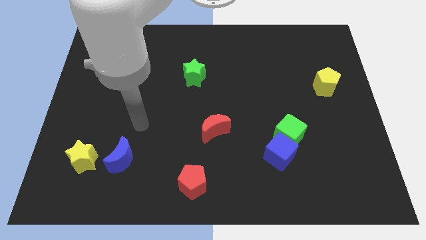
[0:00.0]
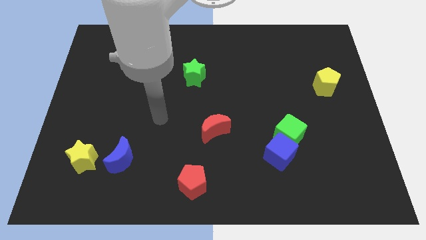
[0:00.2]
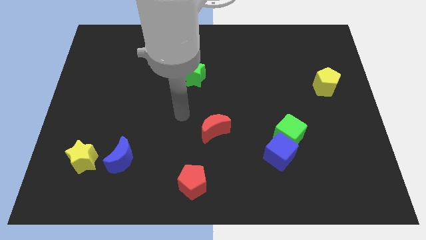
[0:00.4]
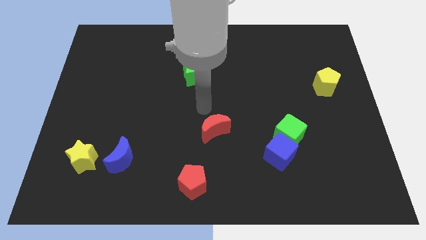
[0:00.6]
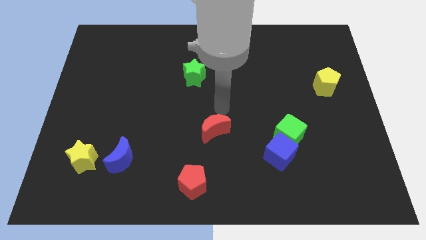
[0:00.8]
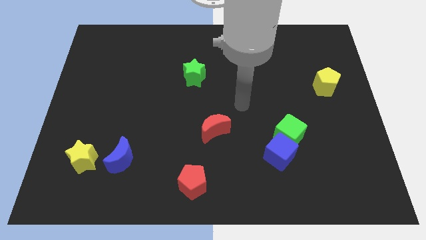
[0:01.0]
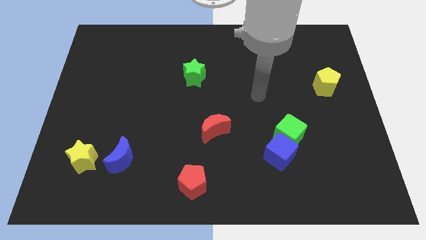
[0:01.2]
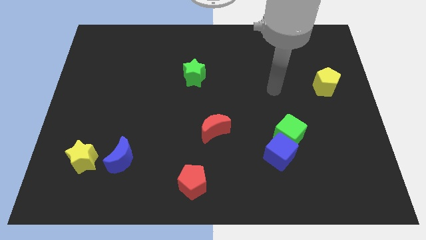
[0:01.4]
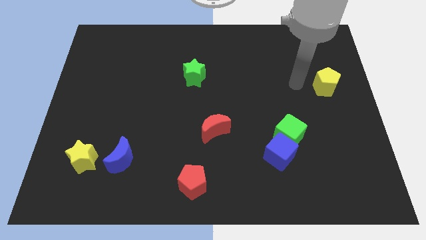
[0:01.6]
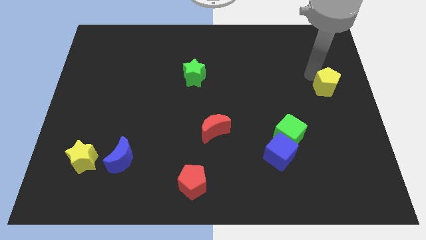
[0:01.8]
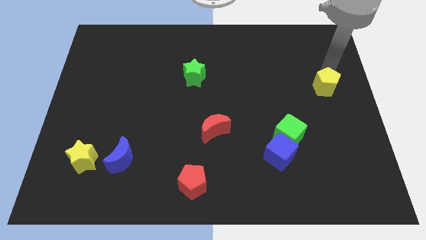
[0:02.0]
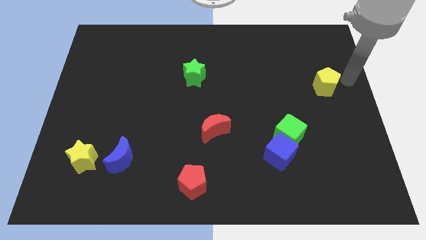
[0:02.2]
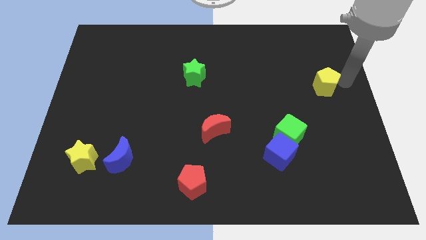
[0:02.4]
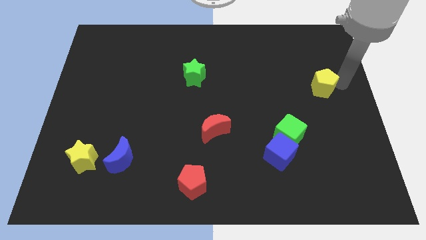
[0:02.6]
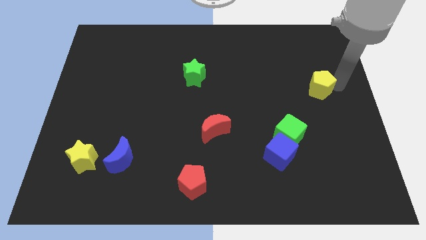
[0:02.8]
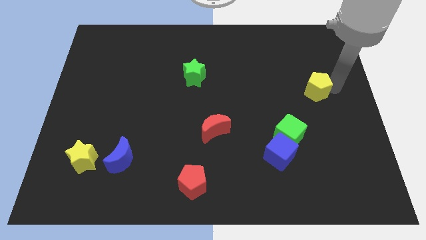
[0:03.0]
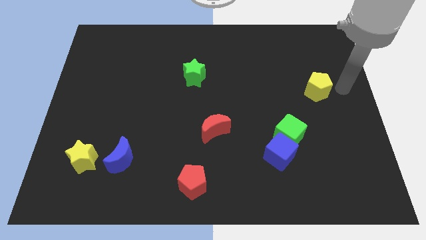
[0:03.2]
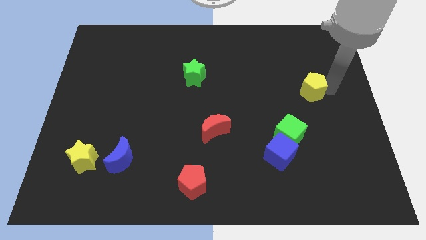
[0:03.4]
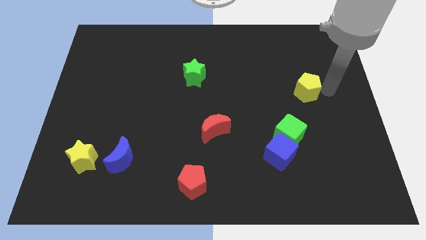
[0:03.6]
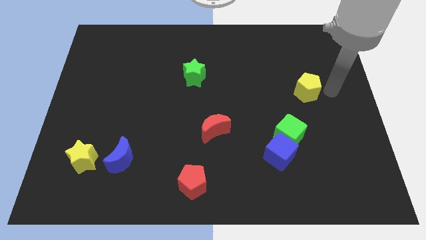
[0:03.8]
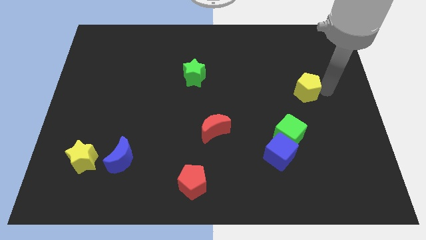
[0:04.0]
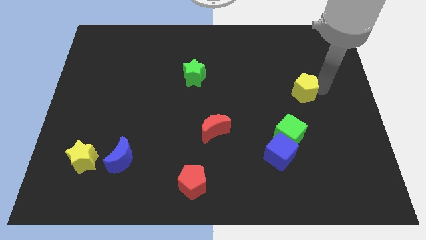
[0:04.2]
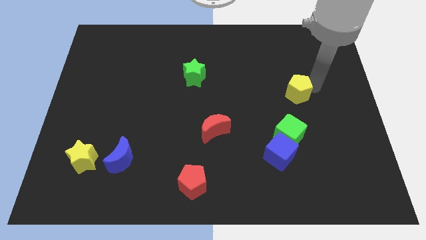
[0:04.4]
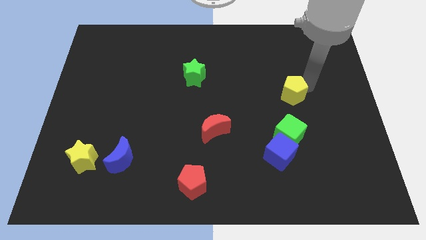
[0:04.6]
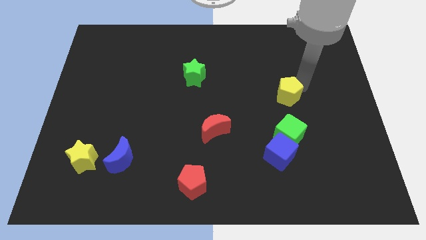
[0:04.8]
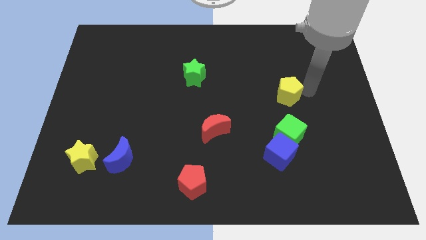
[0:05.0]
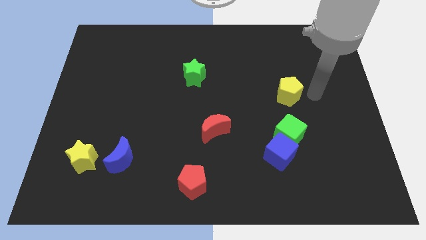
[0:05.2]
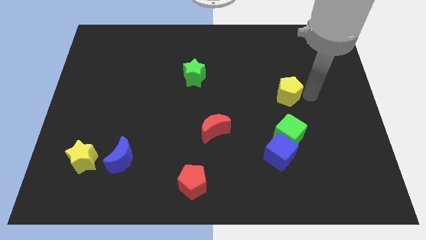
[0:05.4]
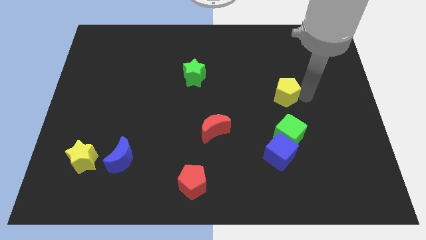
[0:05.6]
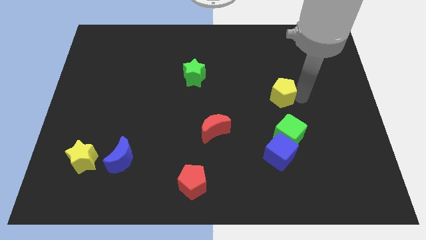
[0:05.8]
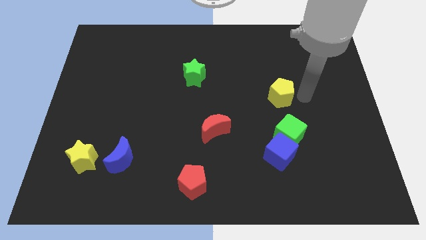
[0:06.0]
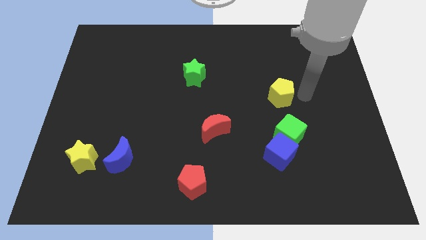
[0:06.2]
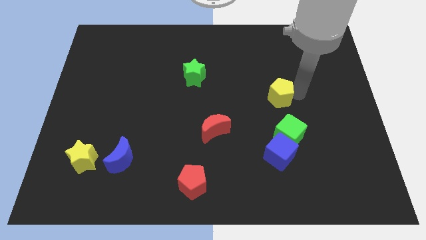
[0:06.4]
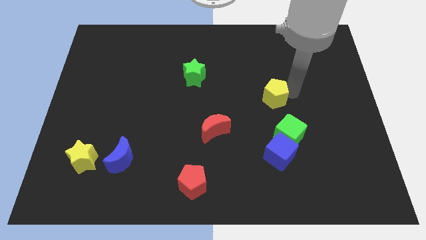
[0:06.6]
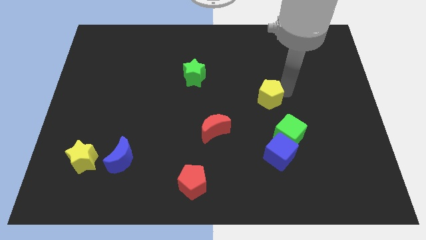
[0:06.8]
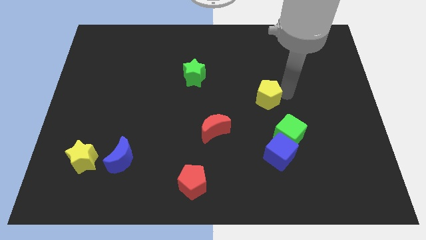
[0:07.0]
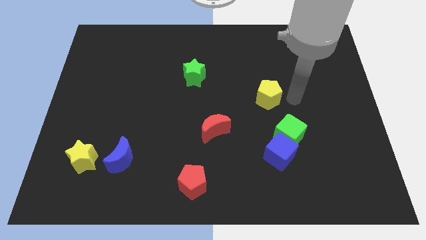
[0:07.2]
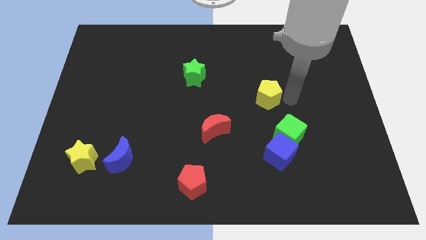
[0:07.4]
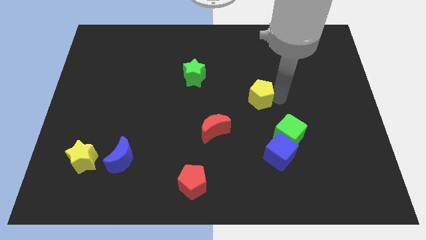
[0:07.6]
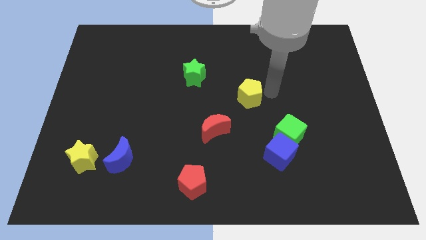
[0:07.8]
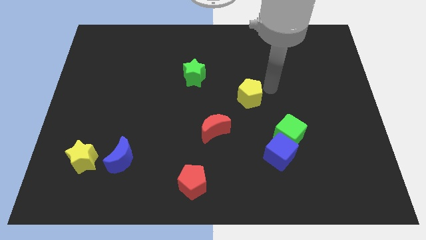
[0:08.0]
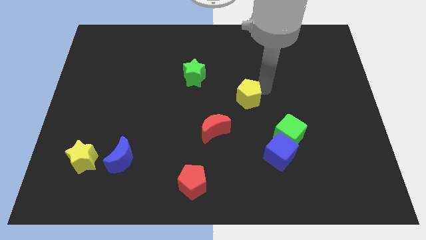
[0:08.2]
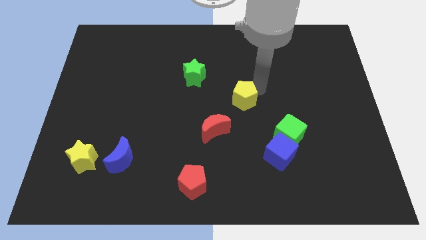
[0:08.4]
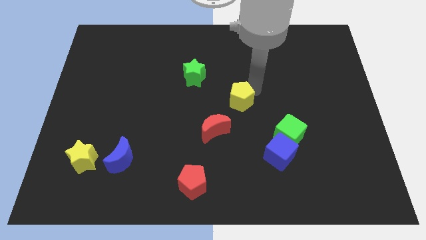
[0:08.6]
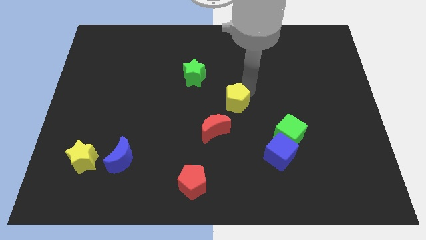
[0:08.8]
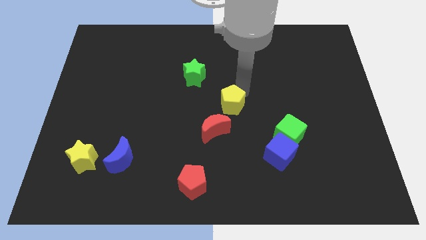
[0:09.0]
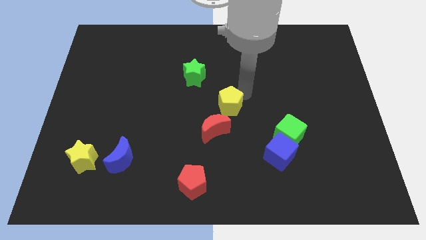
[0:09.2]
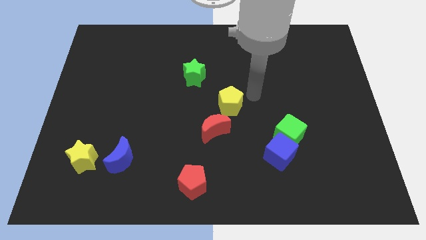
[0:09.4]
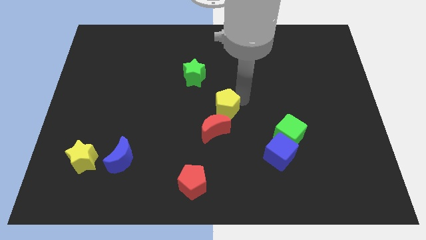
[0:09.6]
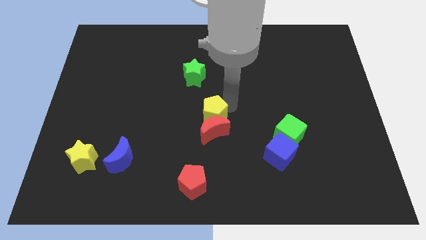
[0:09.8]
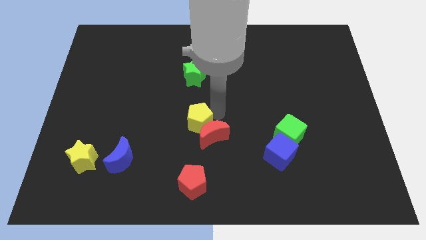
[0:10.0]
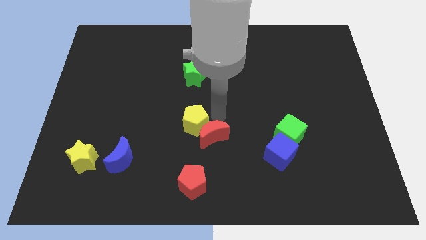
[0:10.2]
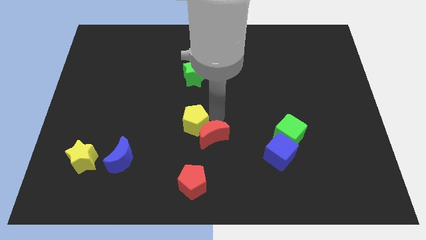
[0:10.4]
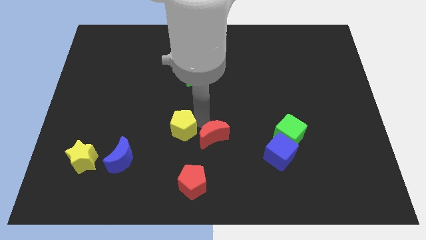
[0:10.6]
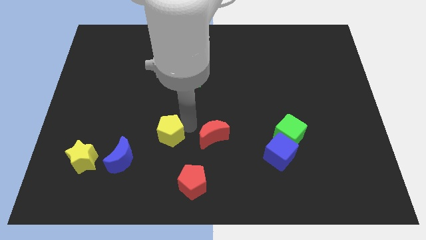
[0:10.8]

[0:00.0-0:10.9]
move the yellow pentagon to the top right side of the blue moon

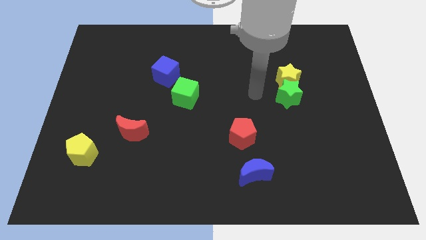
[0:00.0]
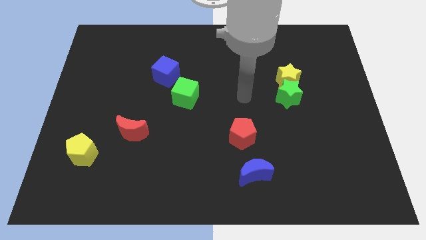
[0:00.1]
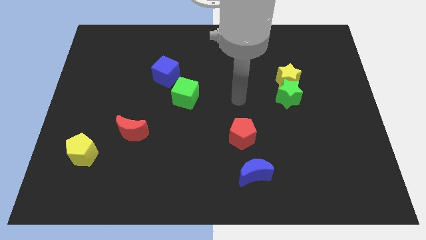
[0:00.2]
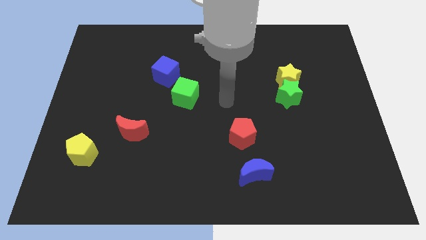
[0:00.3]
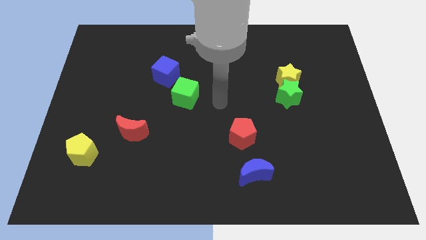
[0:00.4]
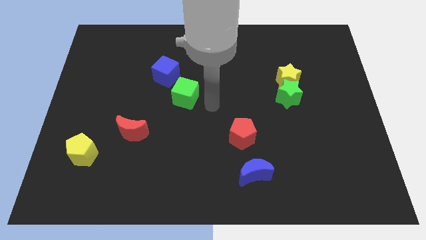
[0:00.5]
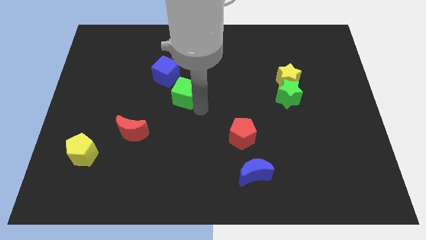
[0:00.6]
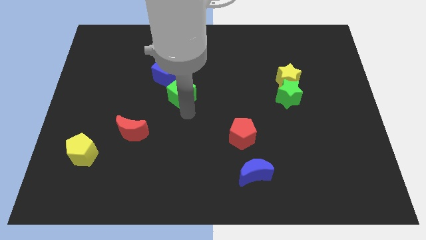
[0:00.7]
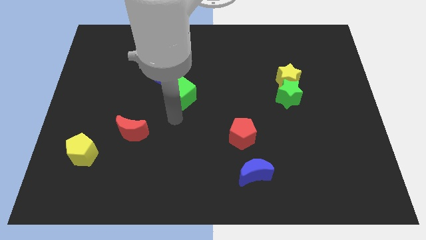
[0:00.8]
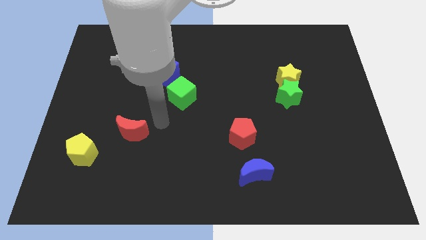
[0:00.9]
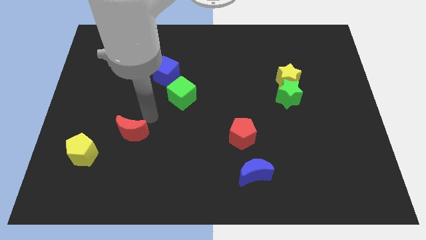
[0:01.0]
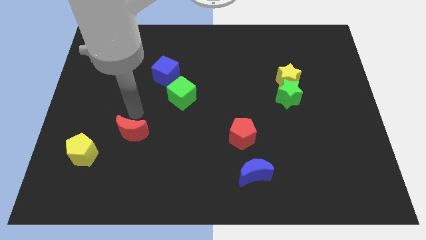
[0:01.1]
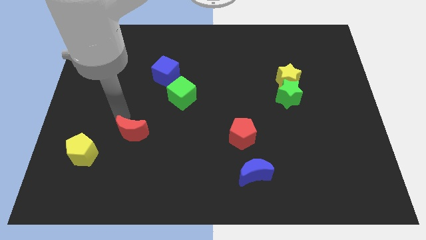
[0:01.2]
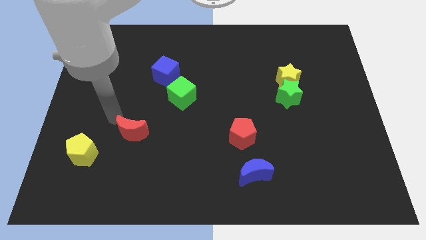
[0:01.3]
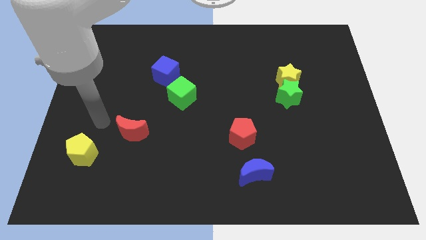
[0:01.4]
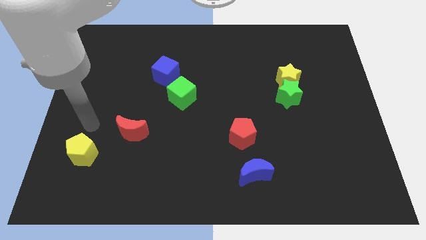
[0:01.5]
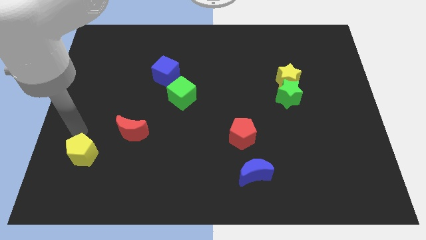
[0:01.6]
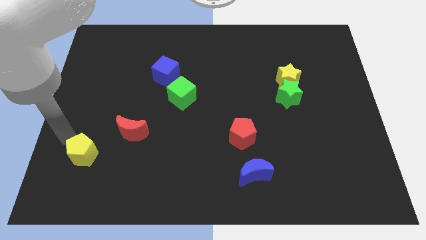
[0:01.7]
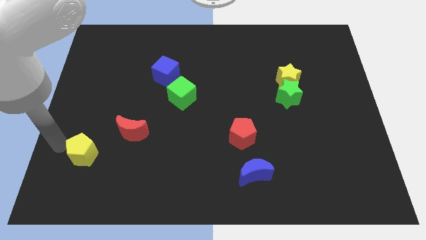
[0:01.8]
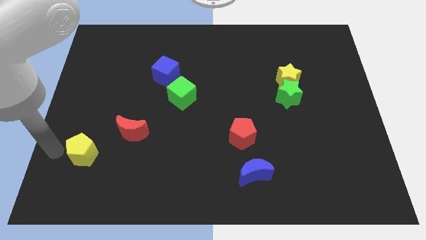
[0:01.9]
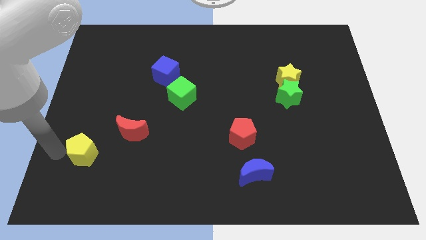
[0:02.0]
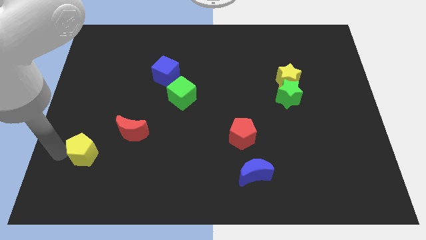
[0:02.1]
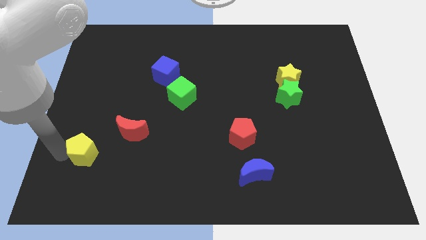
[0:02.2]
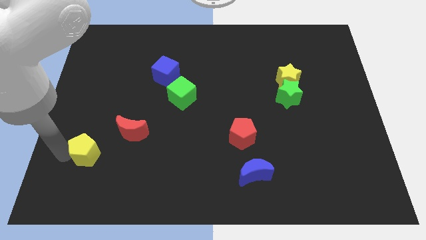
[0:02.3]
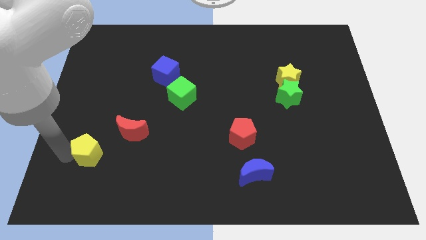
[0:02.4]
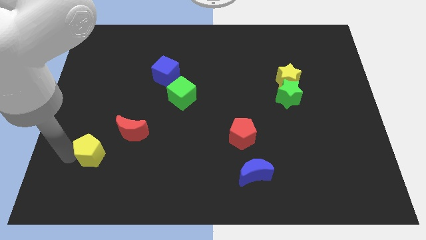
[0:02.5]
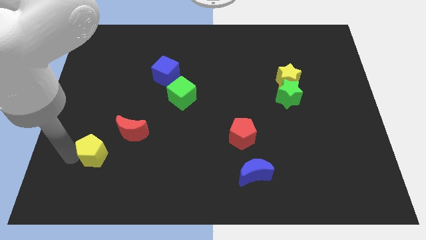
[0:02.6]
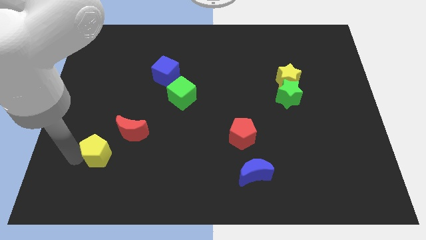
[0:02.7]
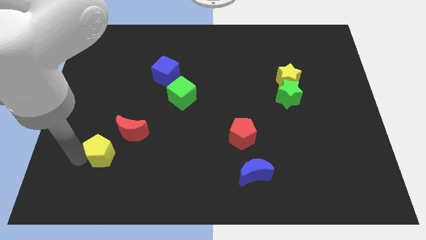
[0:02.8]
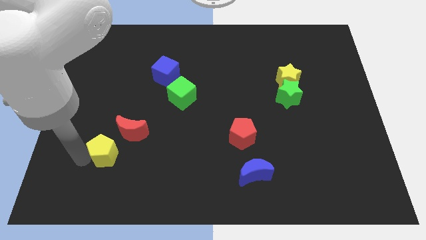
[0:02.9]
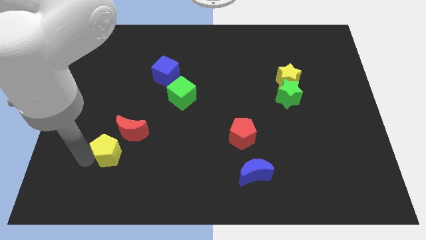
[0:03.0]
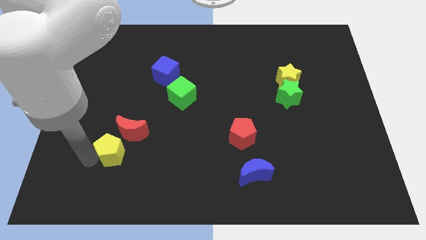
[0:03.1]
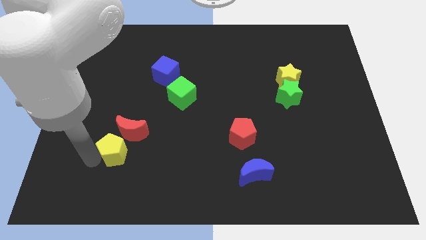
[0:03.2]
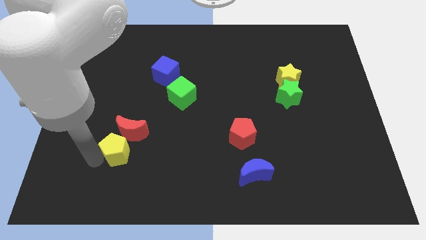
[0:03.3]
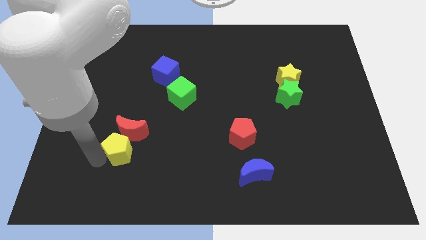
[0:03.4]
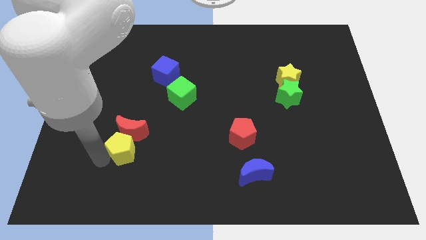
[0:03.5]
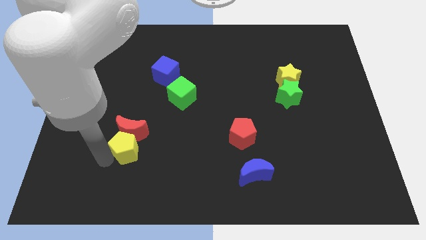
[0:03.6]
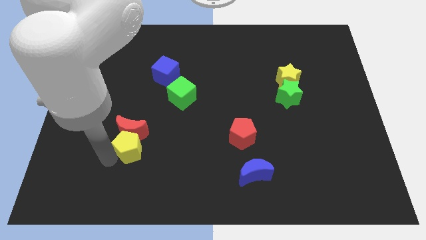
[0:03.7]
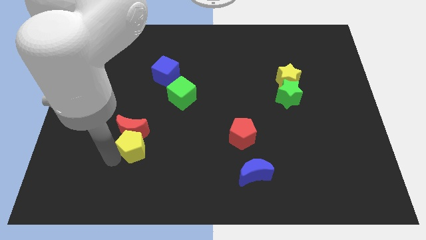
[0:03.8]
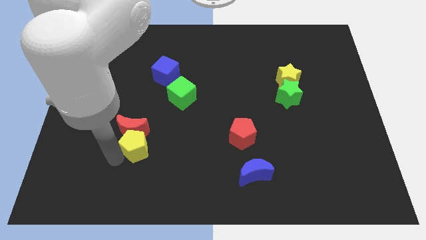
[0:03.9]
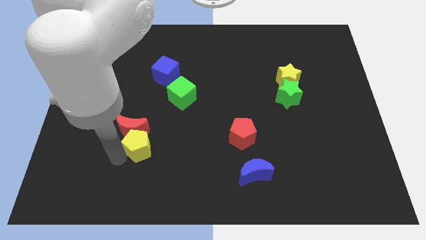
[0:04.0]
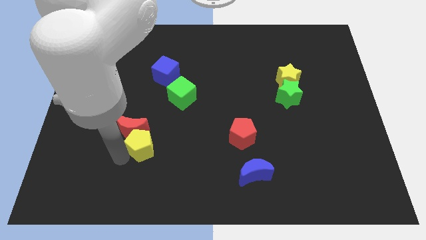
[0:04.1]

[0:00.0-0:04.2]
put the yellow pentagon just right of the red moon
